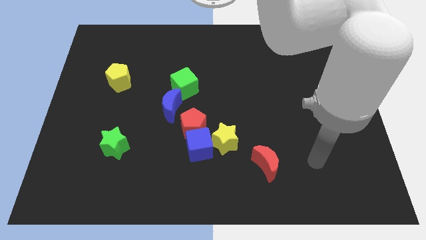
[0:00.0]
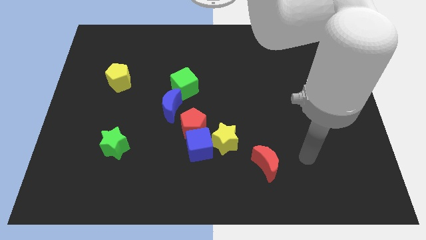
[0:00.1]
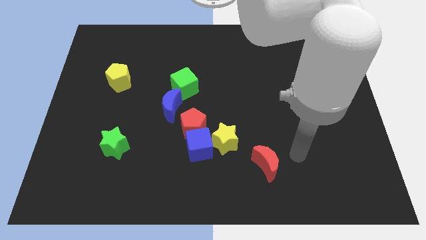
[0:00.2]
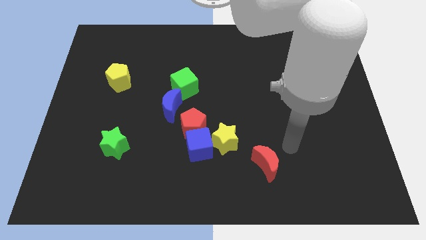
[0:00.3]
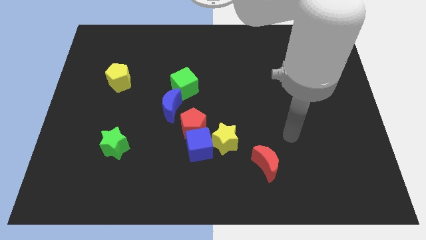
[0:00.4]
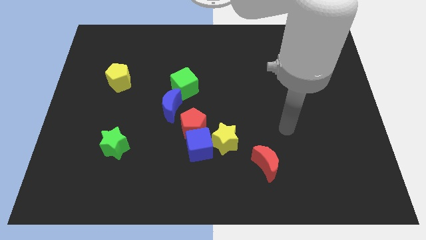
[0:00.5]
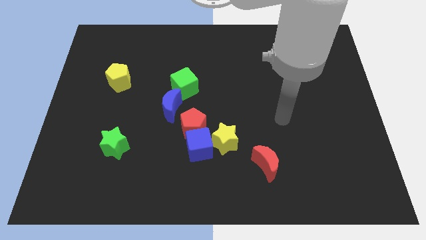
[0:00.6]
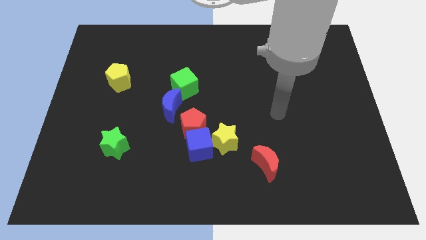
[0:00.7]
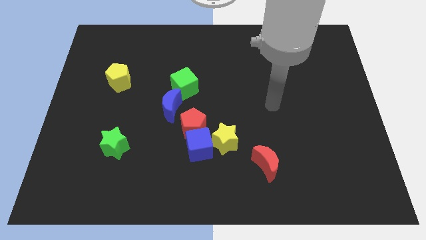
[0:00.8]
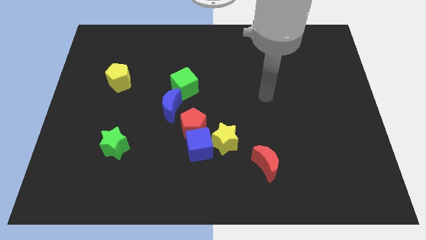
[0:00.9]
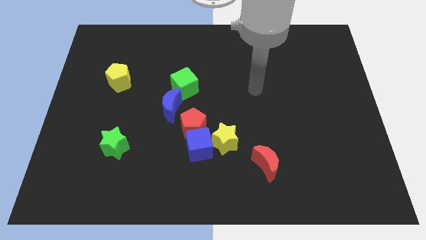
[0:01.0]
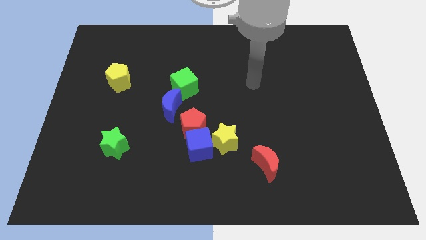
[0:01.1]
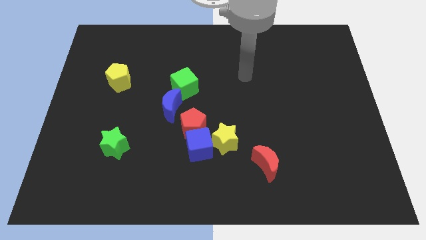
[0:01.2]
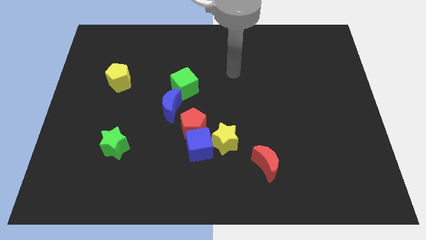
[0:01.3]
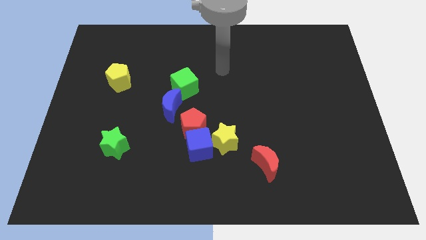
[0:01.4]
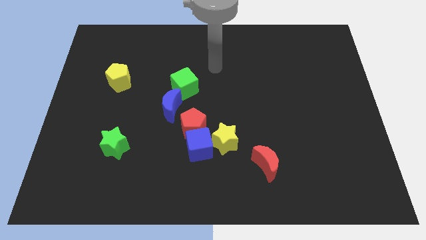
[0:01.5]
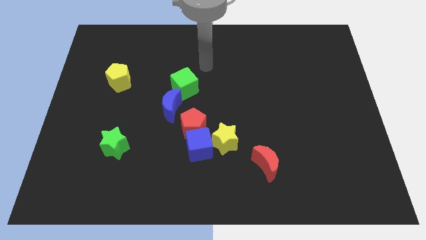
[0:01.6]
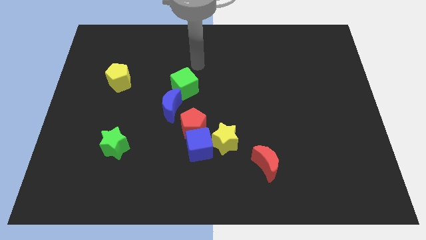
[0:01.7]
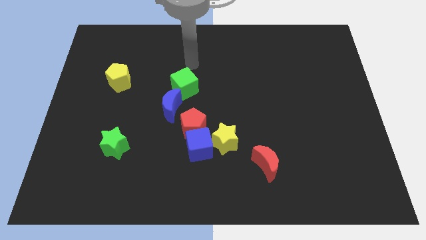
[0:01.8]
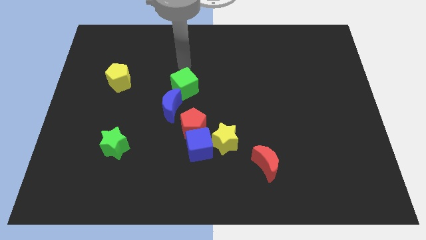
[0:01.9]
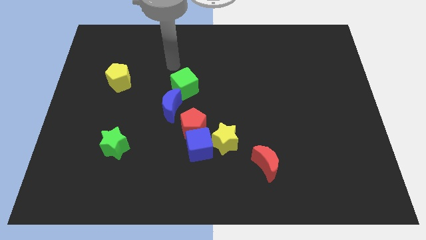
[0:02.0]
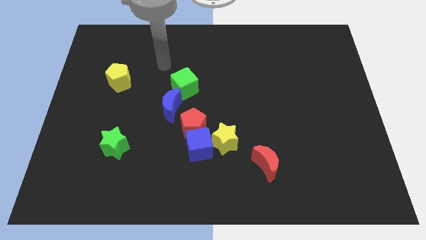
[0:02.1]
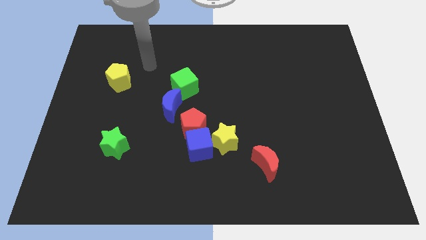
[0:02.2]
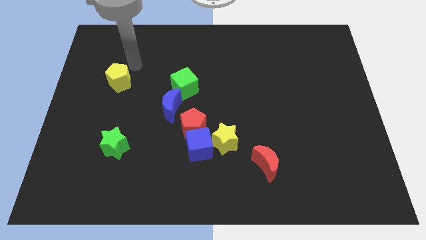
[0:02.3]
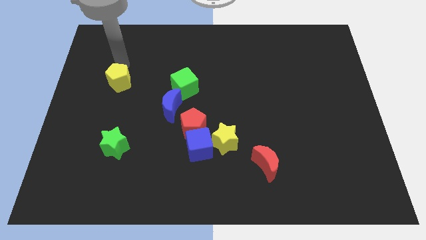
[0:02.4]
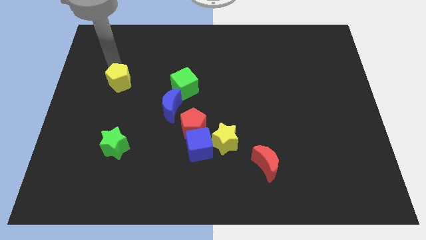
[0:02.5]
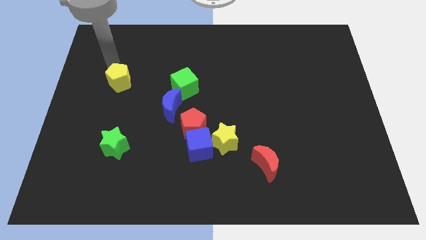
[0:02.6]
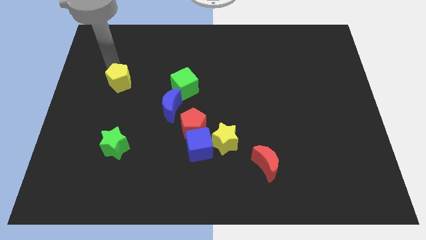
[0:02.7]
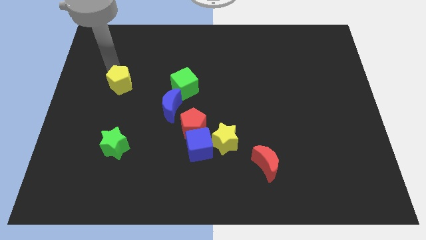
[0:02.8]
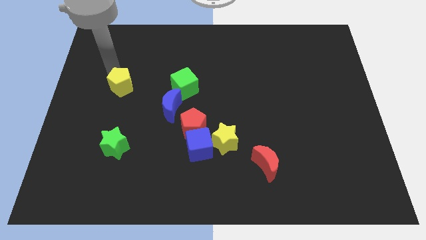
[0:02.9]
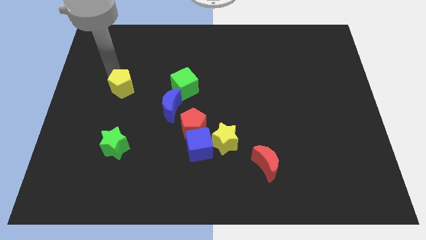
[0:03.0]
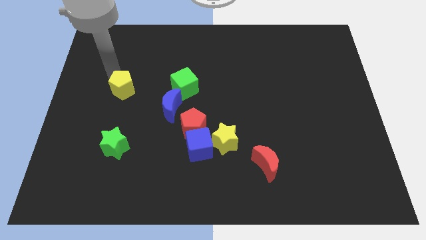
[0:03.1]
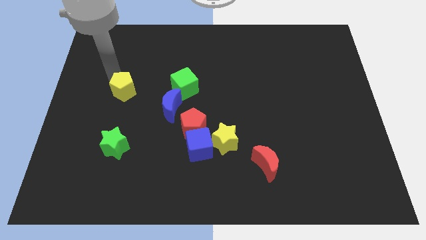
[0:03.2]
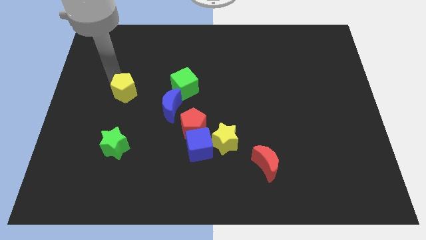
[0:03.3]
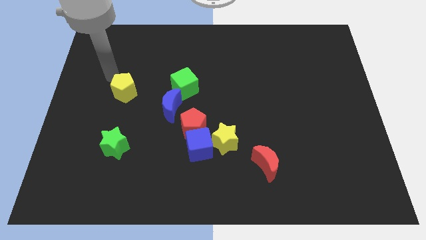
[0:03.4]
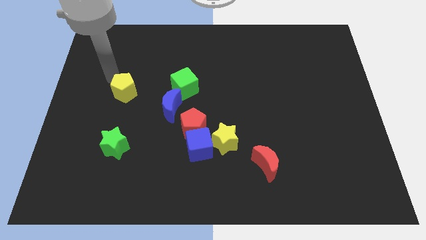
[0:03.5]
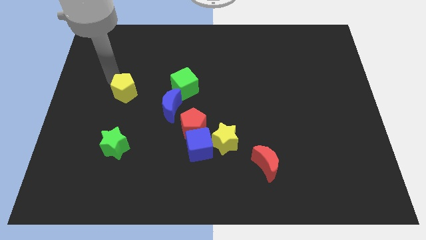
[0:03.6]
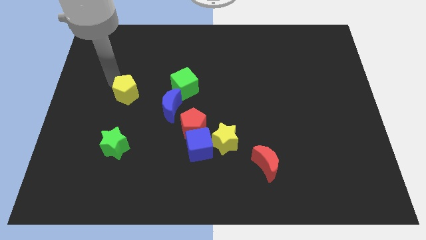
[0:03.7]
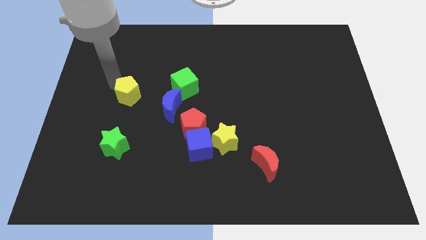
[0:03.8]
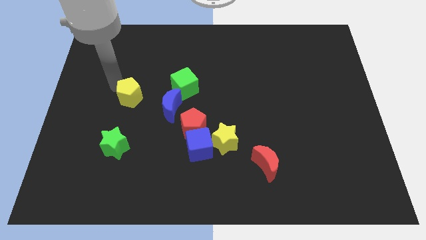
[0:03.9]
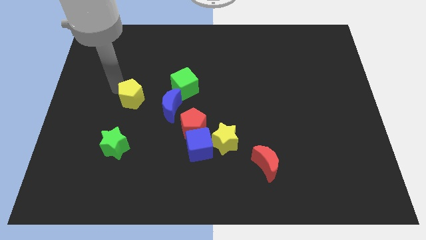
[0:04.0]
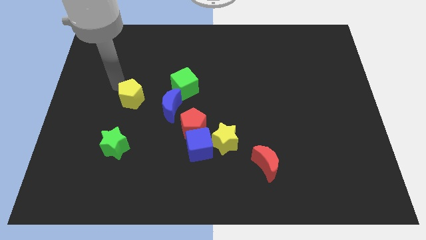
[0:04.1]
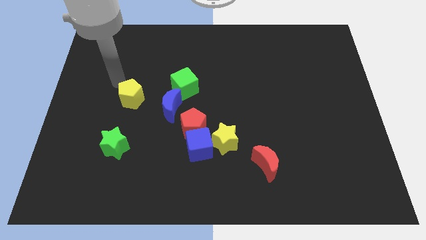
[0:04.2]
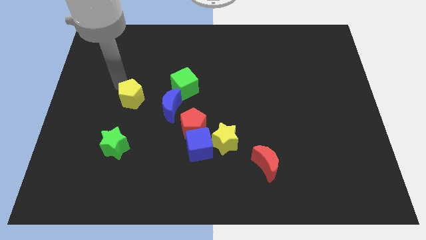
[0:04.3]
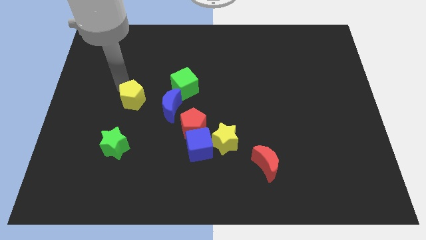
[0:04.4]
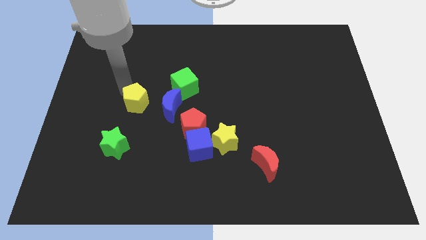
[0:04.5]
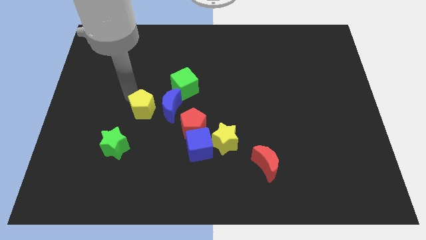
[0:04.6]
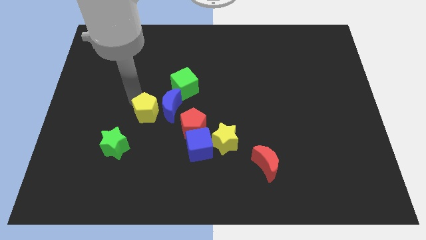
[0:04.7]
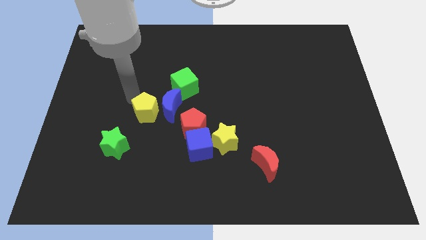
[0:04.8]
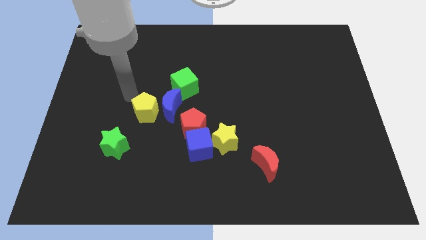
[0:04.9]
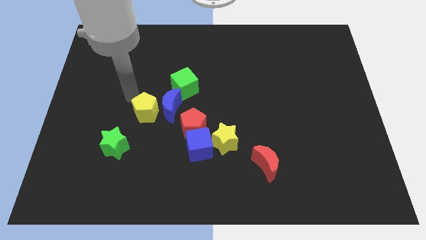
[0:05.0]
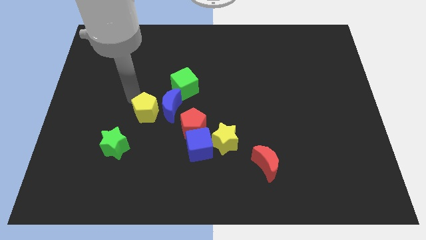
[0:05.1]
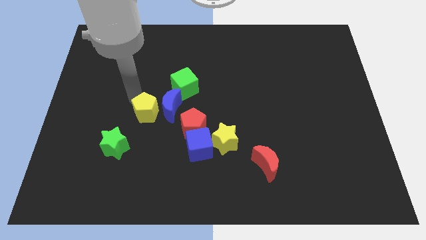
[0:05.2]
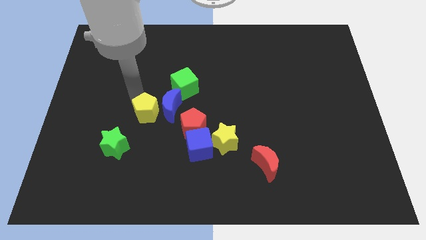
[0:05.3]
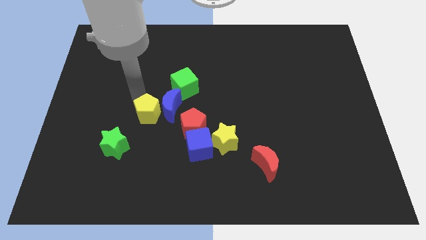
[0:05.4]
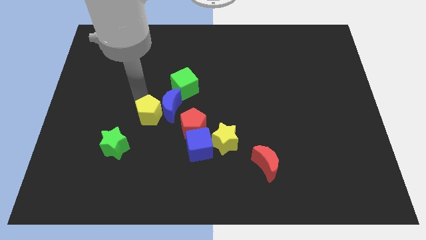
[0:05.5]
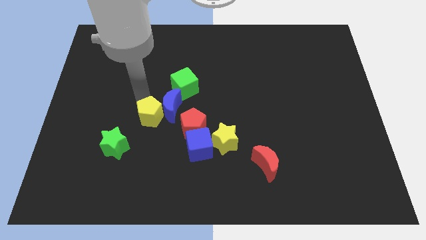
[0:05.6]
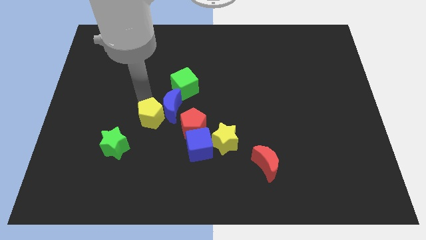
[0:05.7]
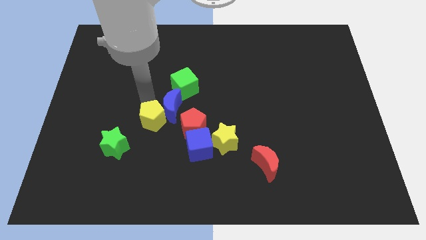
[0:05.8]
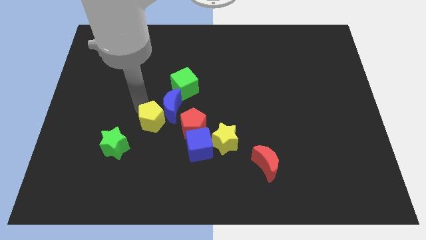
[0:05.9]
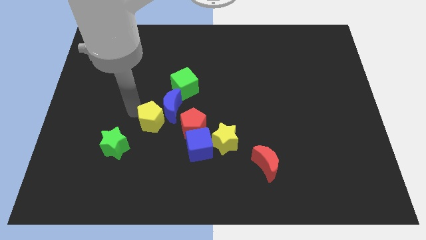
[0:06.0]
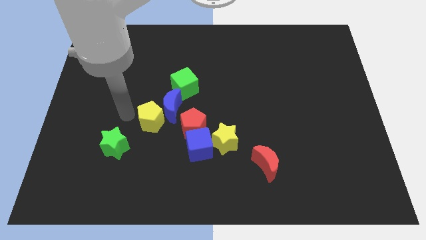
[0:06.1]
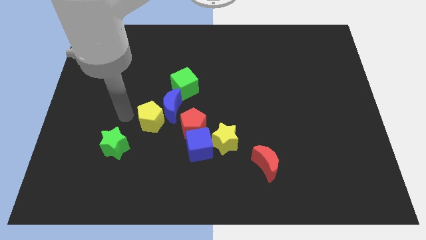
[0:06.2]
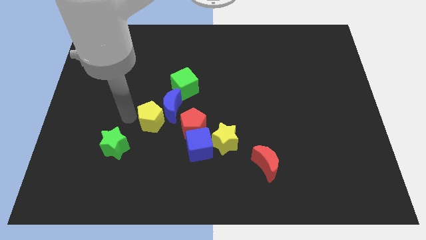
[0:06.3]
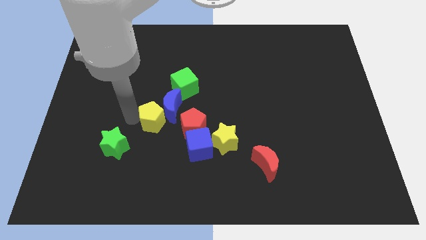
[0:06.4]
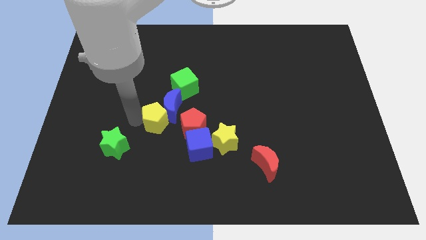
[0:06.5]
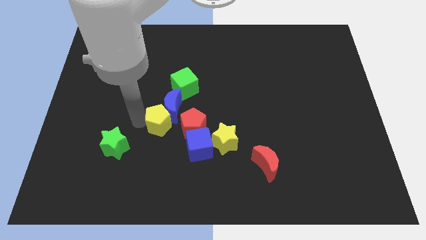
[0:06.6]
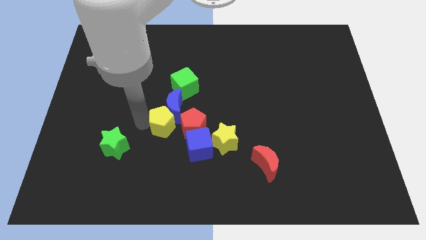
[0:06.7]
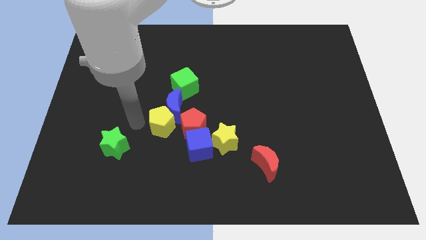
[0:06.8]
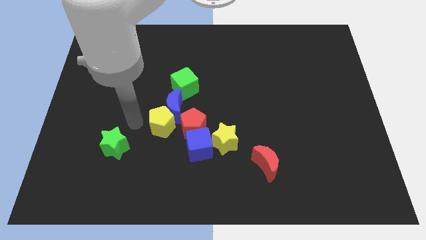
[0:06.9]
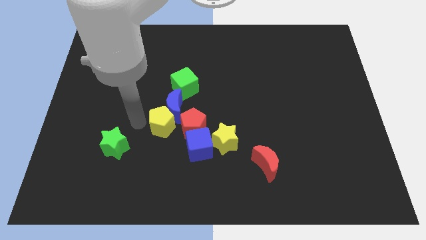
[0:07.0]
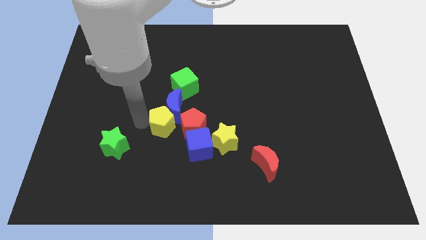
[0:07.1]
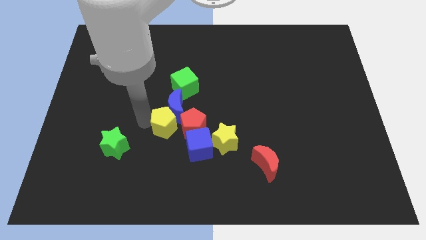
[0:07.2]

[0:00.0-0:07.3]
put the yellow pentagon next to the red pentagon
